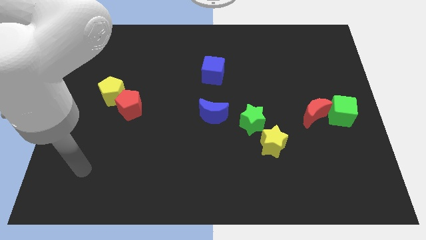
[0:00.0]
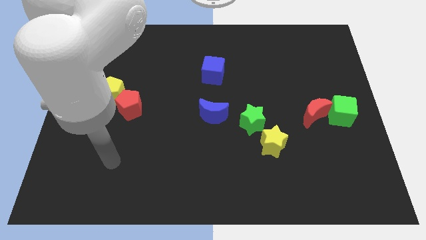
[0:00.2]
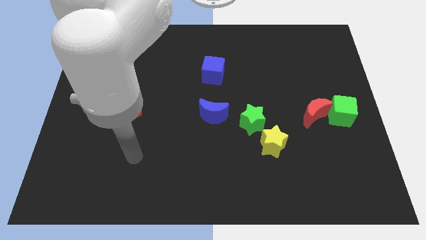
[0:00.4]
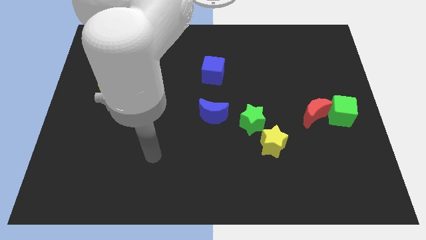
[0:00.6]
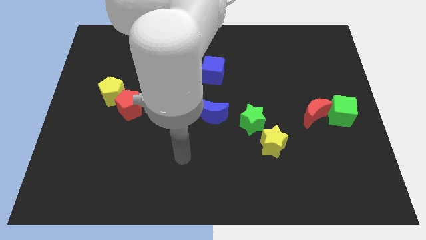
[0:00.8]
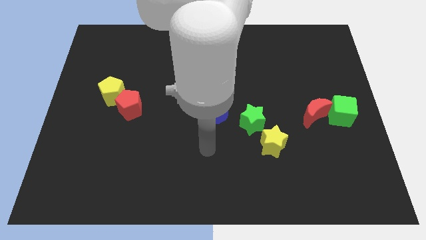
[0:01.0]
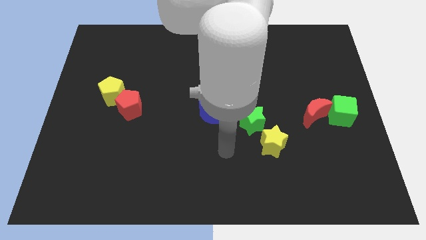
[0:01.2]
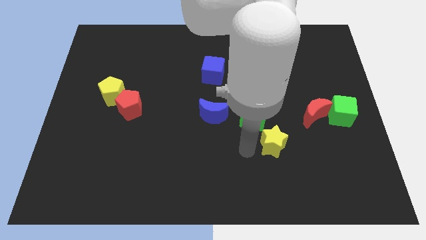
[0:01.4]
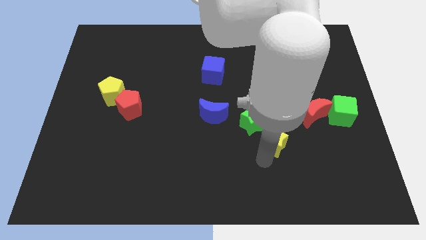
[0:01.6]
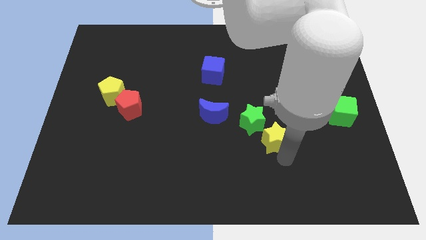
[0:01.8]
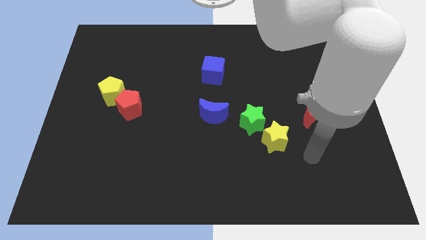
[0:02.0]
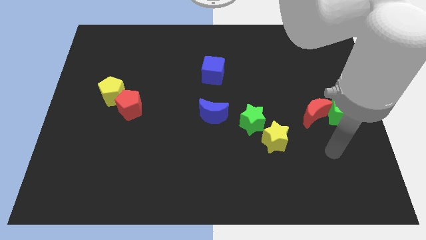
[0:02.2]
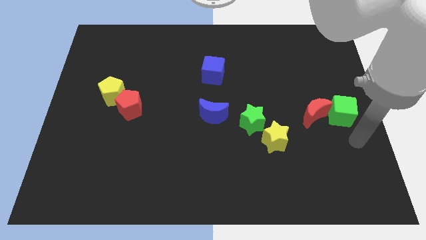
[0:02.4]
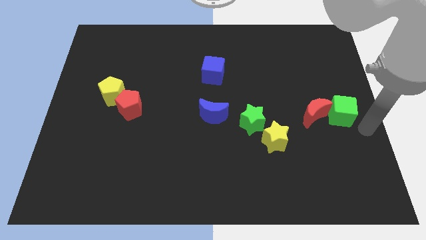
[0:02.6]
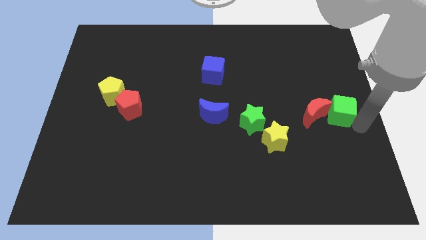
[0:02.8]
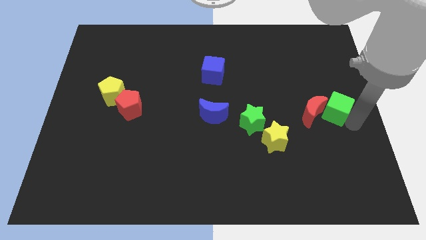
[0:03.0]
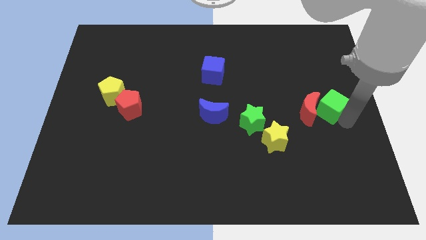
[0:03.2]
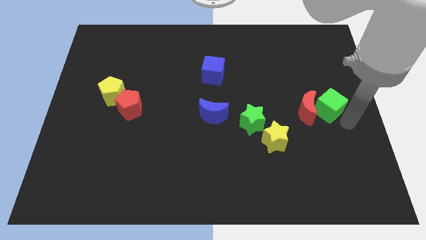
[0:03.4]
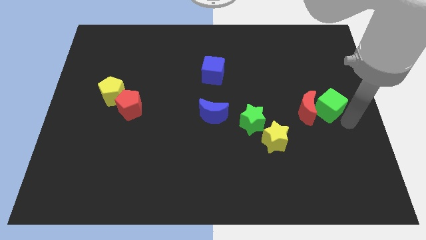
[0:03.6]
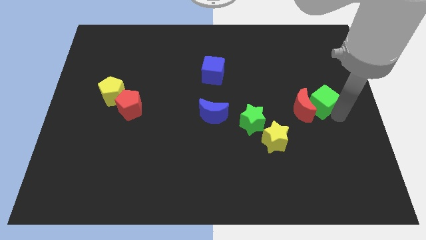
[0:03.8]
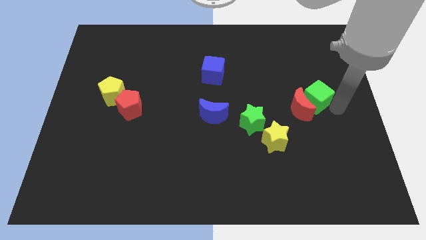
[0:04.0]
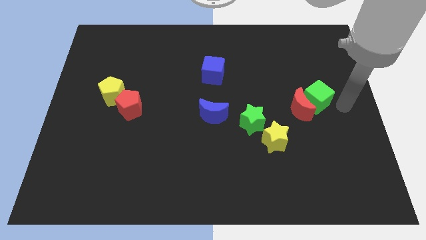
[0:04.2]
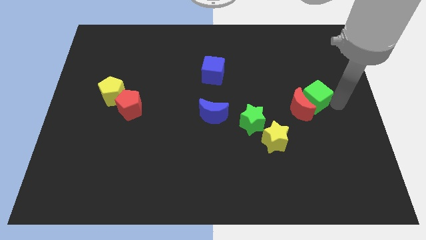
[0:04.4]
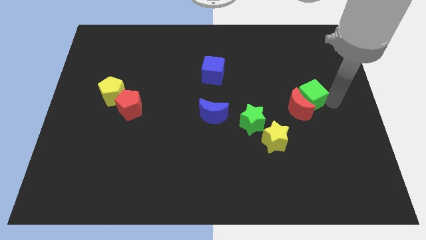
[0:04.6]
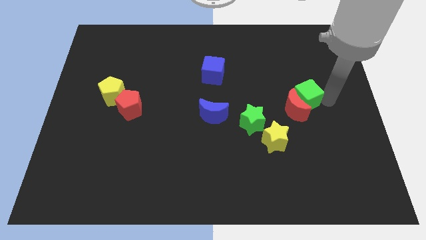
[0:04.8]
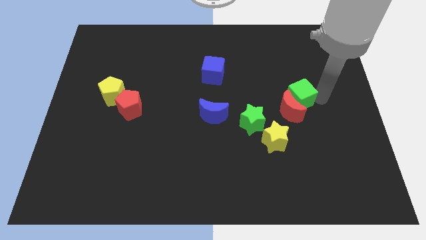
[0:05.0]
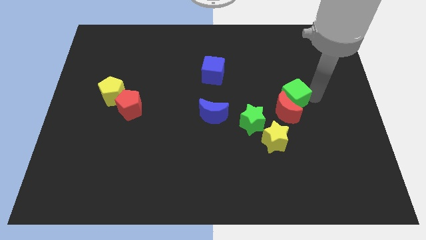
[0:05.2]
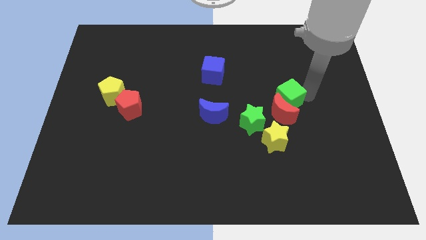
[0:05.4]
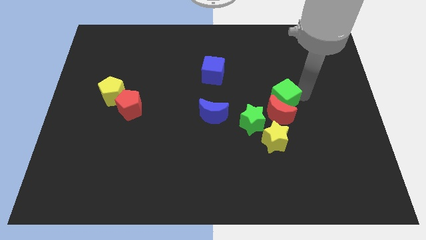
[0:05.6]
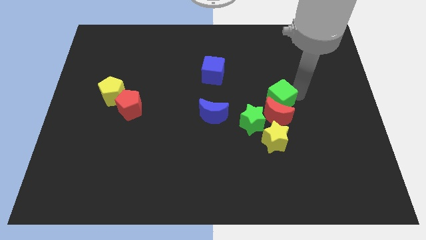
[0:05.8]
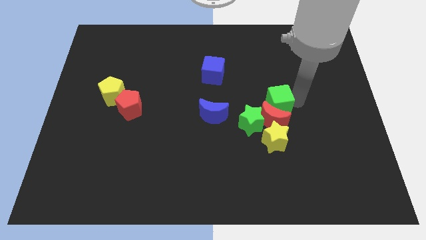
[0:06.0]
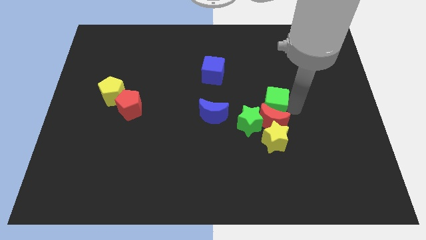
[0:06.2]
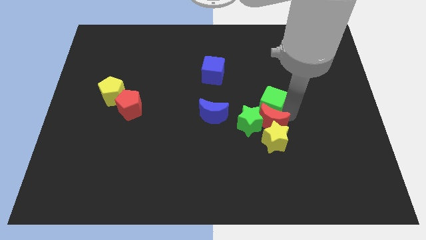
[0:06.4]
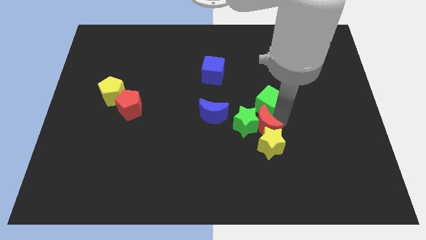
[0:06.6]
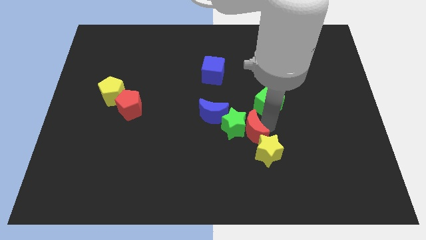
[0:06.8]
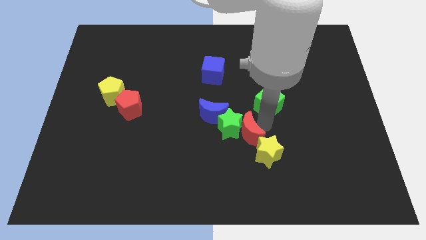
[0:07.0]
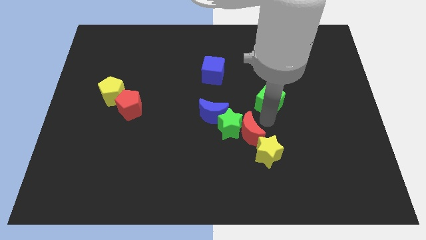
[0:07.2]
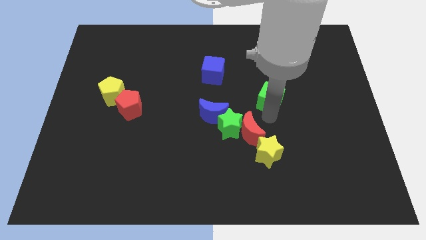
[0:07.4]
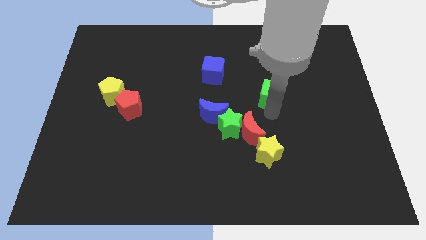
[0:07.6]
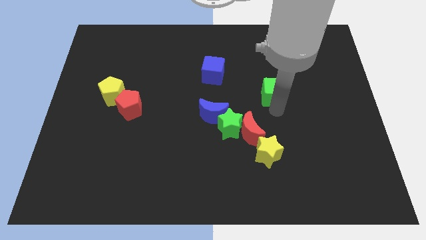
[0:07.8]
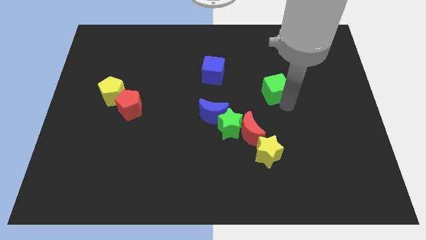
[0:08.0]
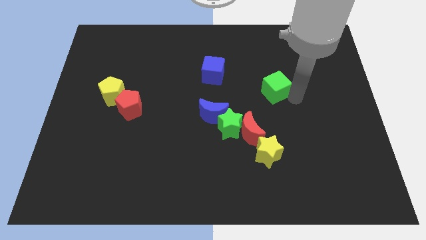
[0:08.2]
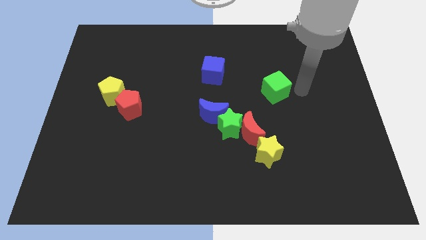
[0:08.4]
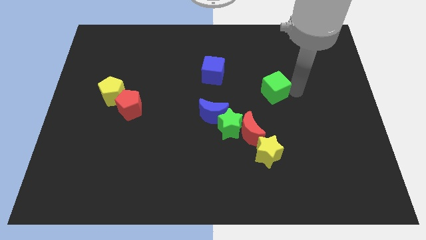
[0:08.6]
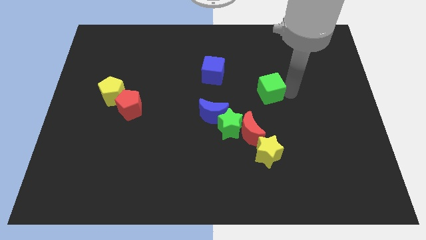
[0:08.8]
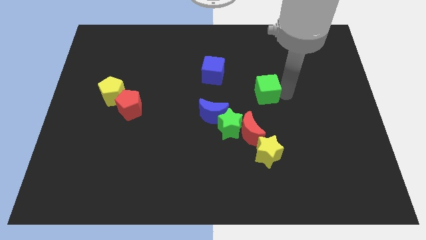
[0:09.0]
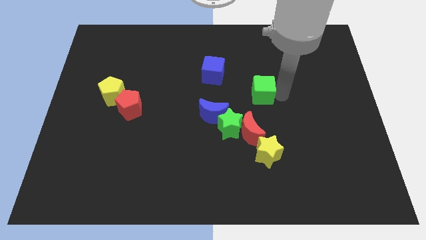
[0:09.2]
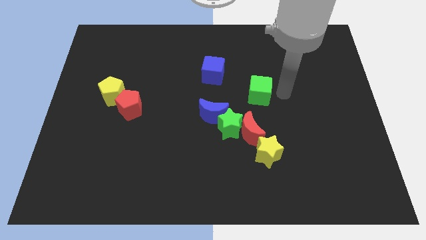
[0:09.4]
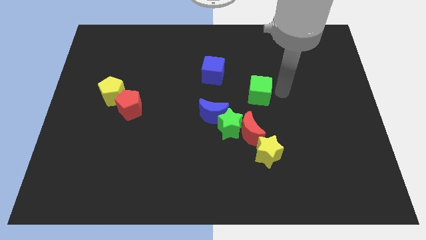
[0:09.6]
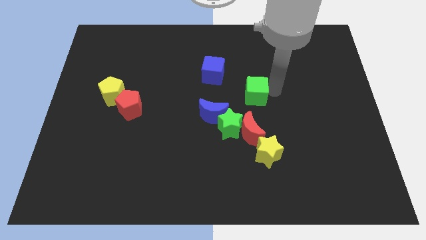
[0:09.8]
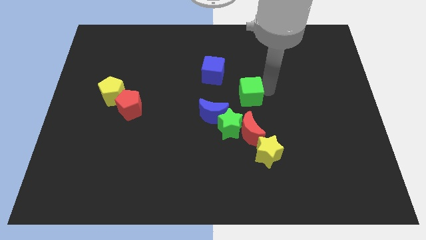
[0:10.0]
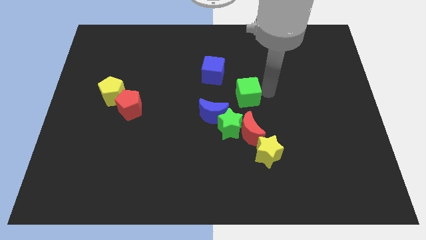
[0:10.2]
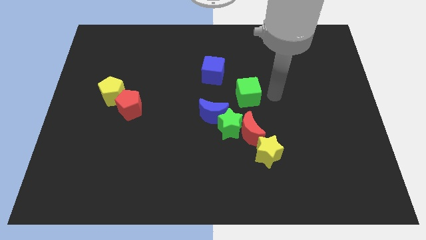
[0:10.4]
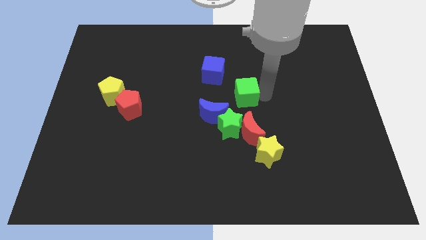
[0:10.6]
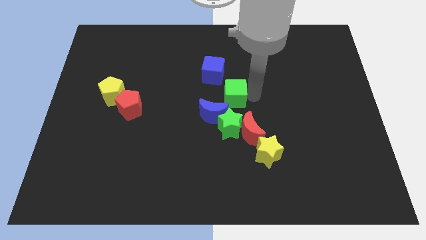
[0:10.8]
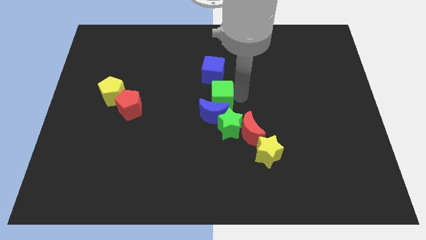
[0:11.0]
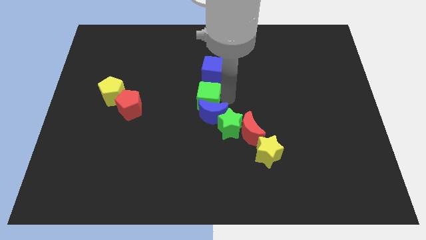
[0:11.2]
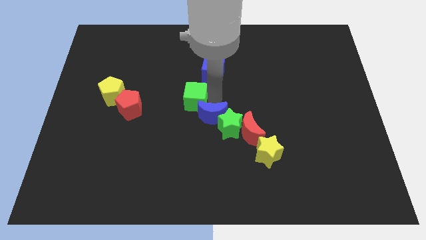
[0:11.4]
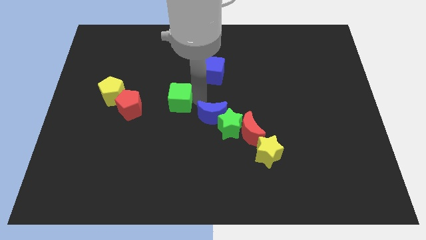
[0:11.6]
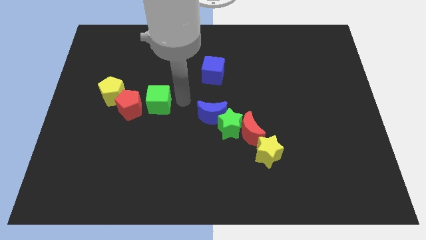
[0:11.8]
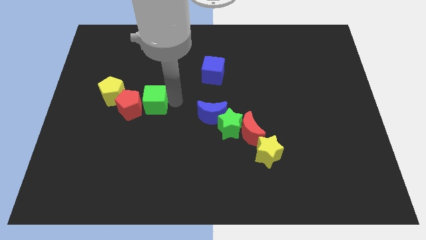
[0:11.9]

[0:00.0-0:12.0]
slide the green cube next to the red pentagon

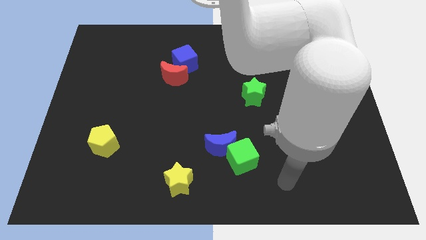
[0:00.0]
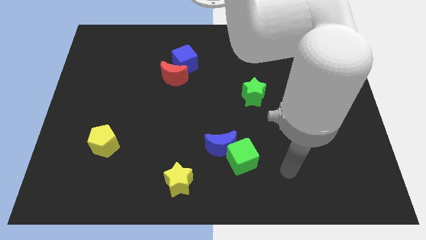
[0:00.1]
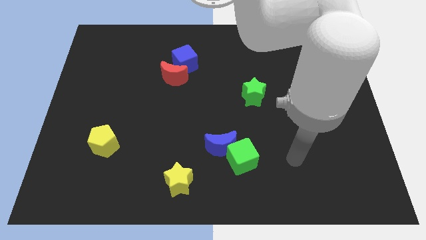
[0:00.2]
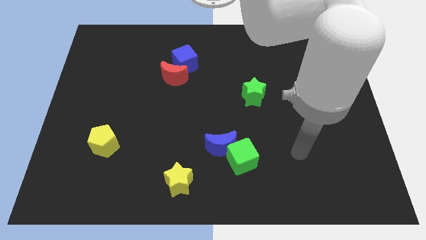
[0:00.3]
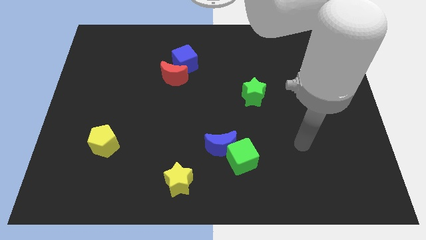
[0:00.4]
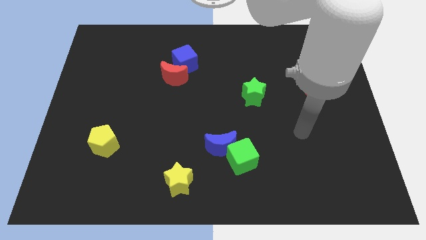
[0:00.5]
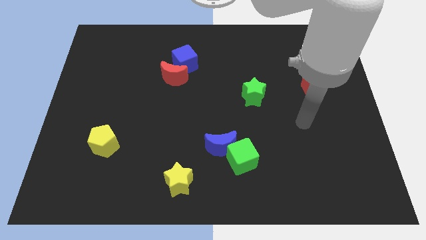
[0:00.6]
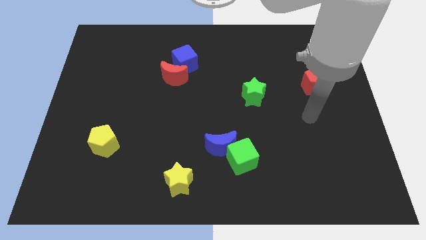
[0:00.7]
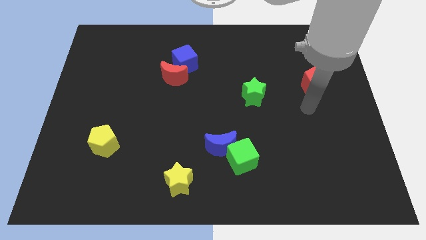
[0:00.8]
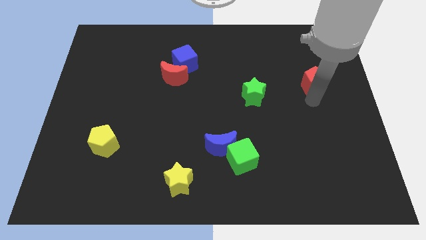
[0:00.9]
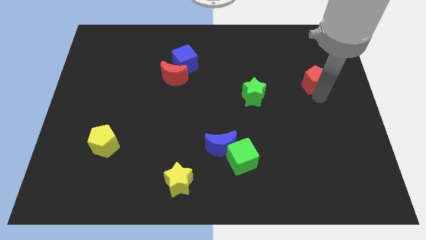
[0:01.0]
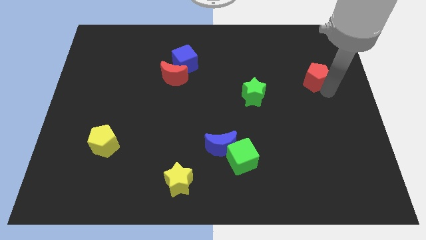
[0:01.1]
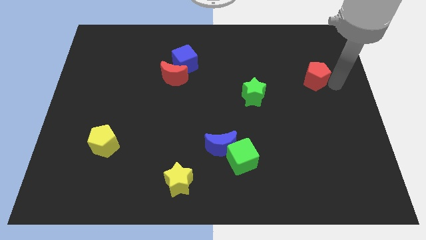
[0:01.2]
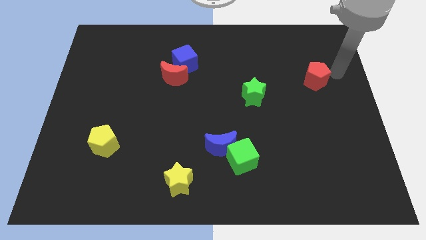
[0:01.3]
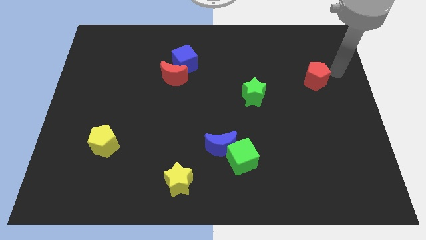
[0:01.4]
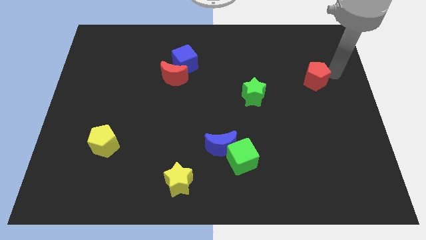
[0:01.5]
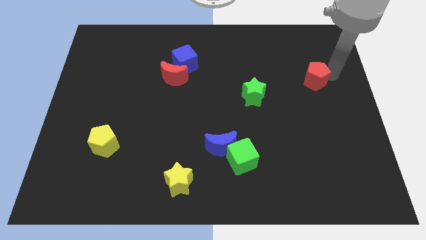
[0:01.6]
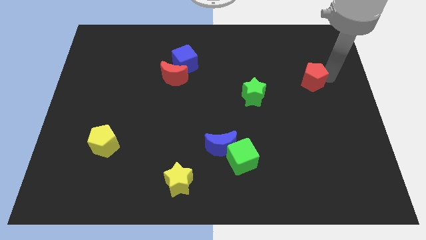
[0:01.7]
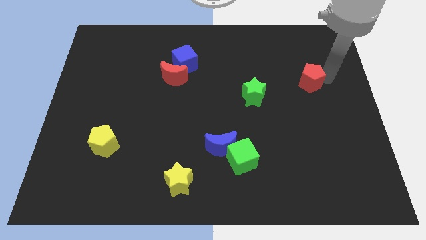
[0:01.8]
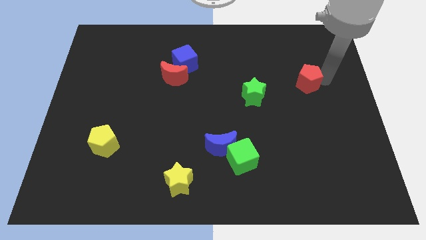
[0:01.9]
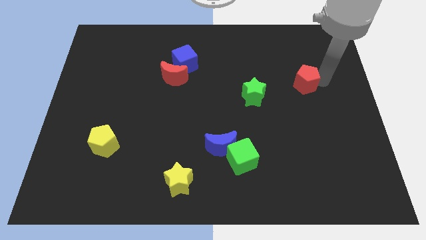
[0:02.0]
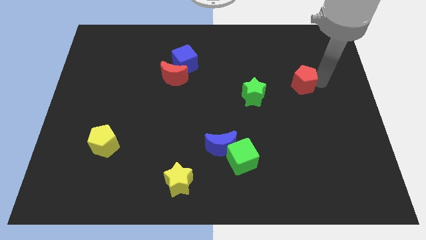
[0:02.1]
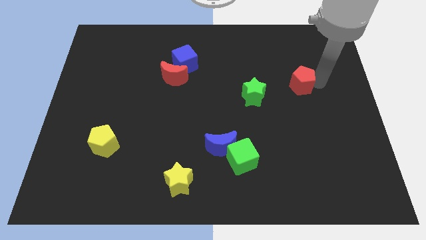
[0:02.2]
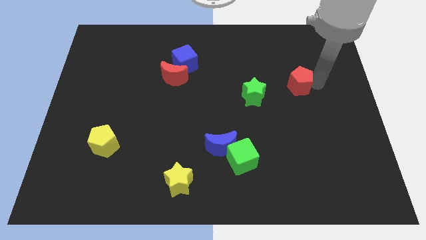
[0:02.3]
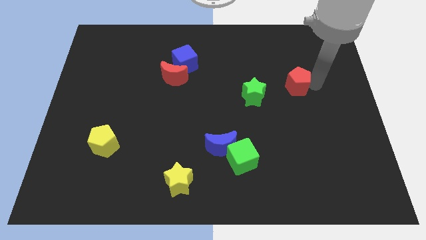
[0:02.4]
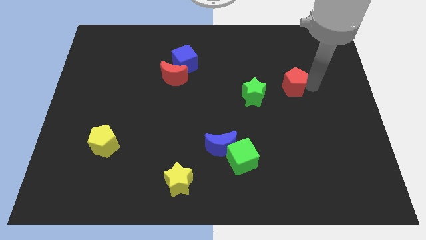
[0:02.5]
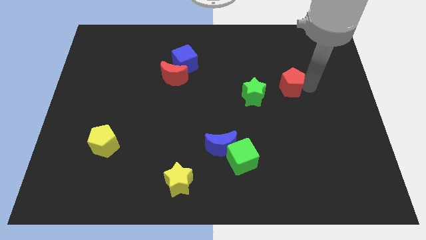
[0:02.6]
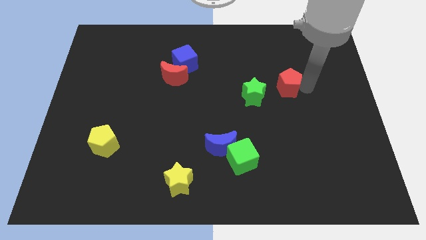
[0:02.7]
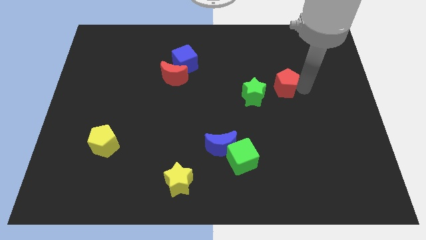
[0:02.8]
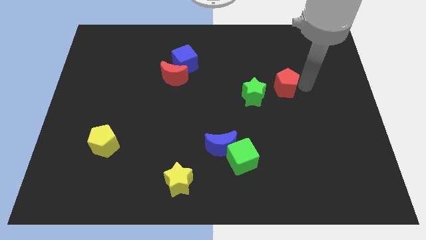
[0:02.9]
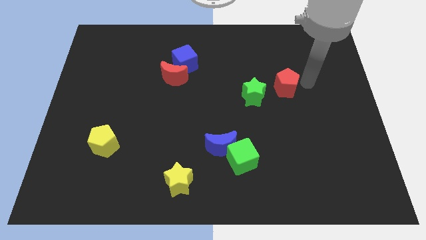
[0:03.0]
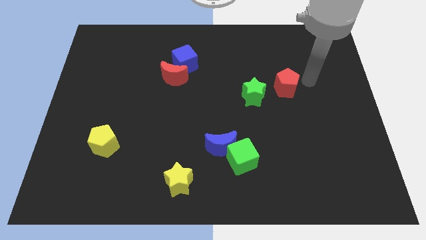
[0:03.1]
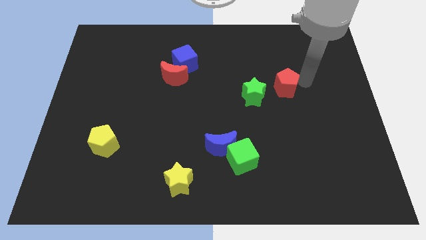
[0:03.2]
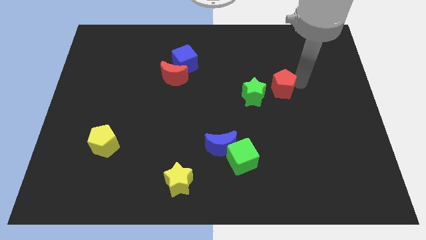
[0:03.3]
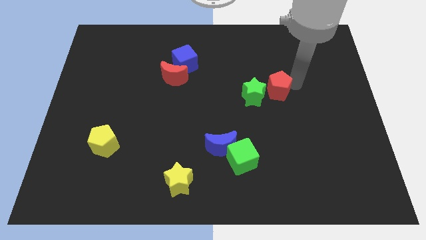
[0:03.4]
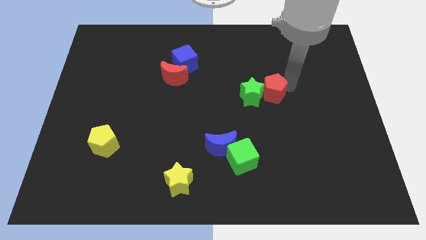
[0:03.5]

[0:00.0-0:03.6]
push the red pentagon towards the green star
